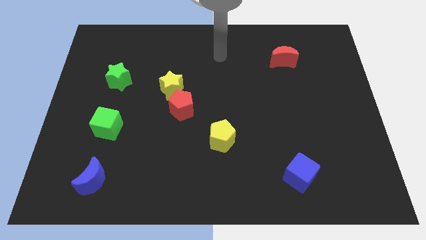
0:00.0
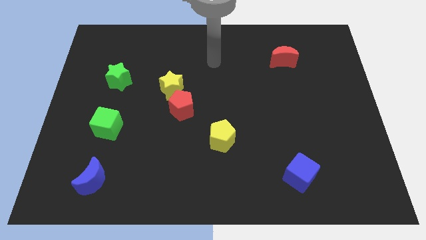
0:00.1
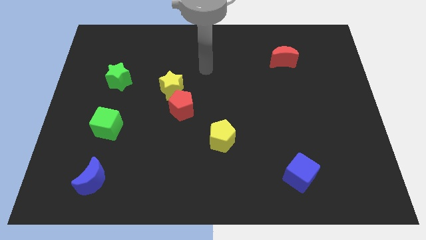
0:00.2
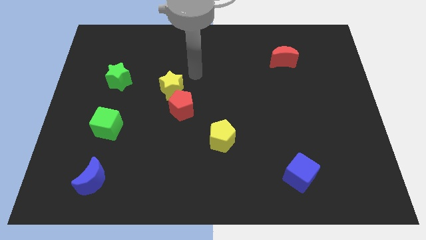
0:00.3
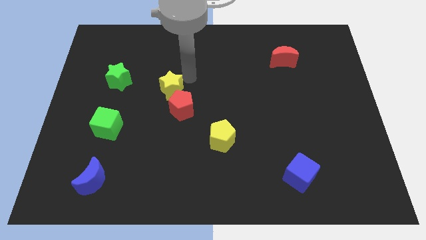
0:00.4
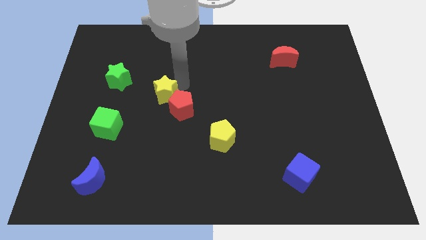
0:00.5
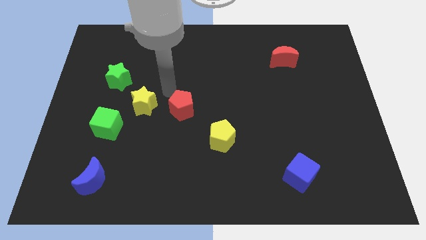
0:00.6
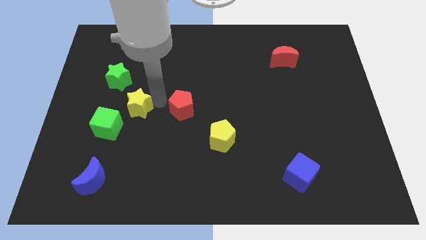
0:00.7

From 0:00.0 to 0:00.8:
separate the red pentagon from the yellow star

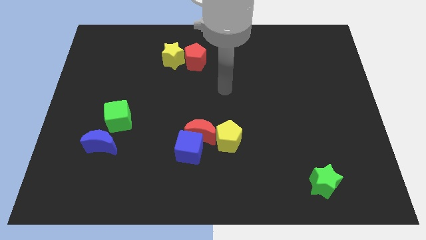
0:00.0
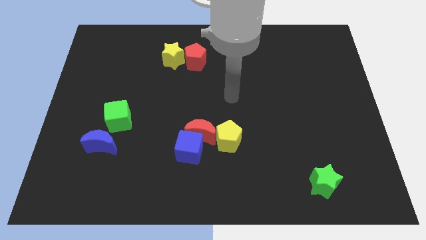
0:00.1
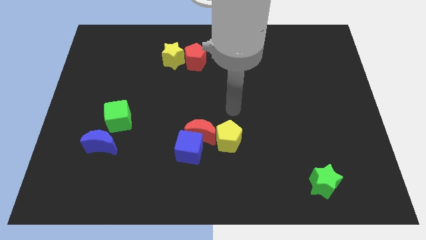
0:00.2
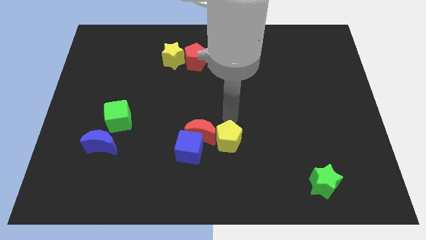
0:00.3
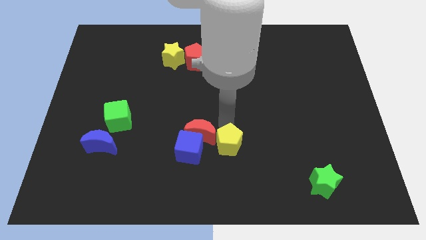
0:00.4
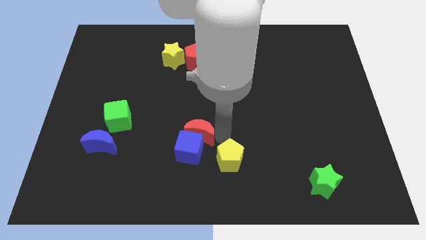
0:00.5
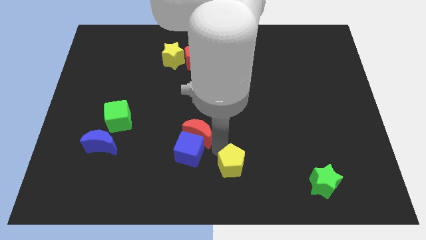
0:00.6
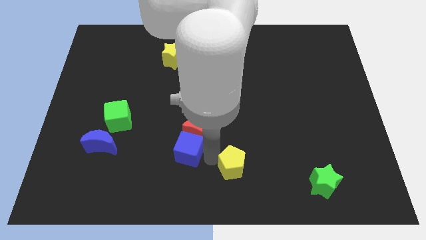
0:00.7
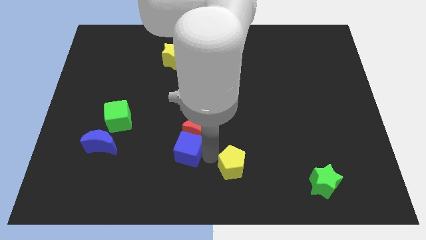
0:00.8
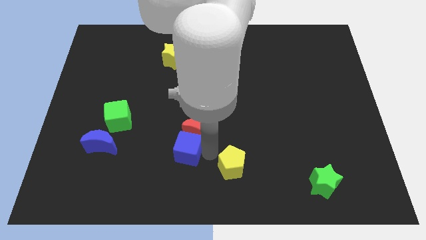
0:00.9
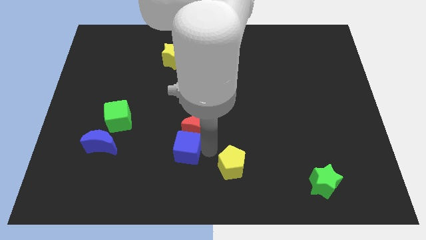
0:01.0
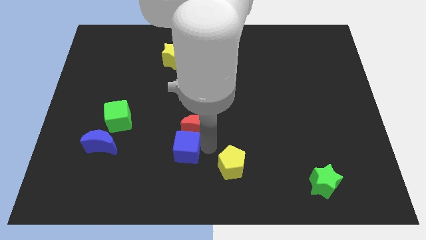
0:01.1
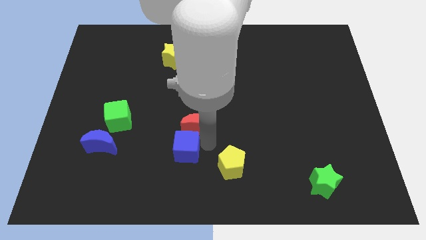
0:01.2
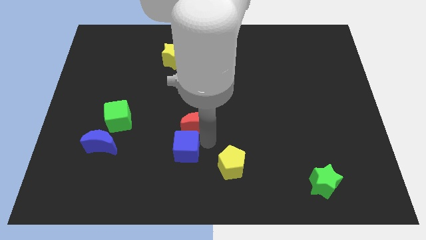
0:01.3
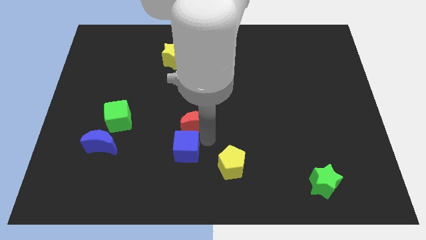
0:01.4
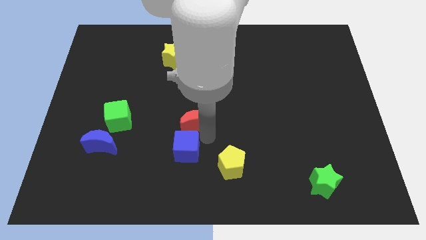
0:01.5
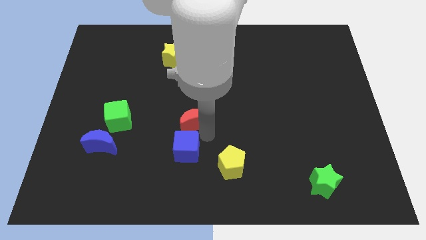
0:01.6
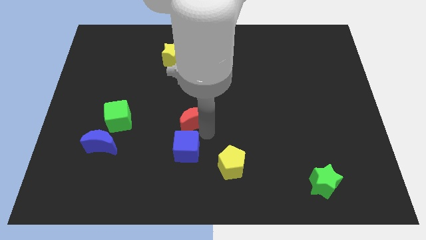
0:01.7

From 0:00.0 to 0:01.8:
pull the red moon apart from the blue cube and yellow pentagon

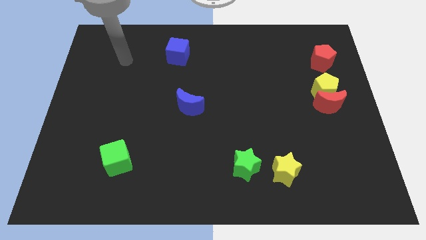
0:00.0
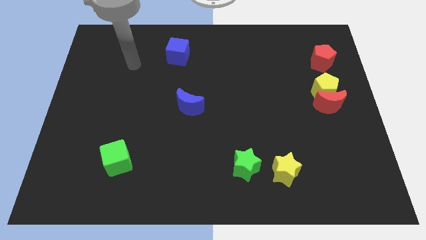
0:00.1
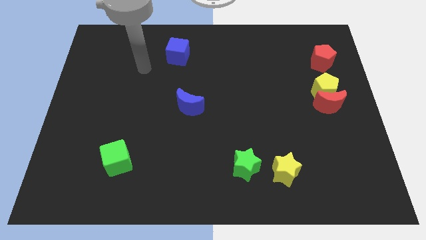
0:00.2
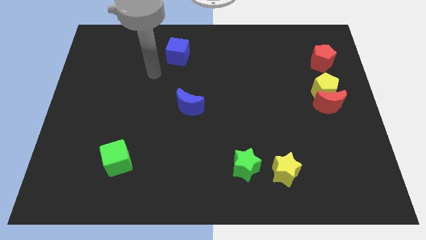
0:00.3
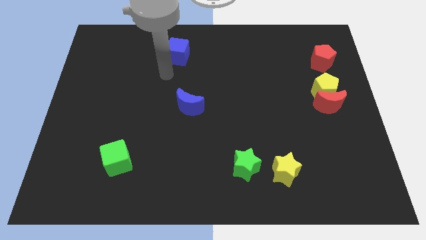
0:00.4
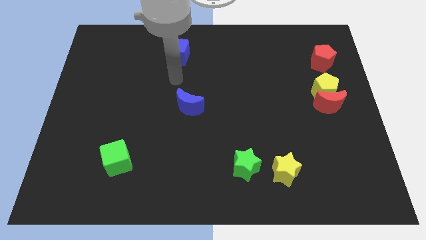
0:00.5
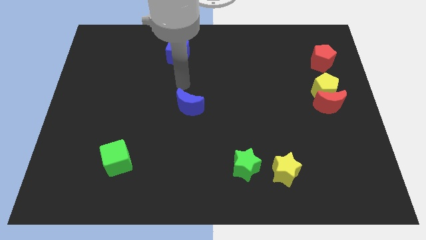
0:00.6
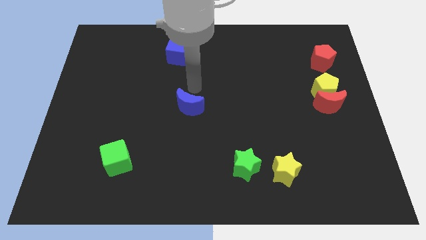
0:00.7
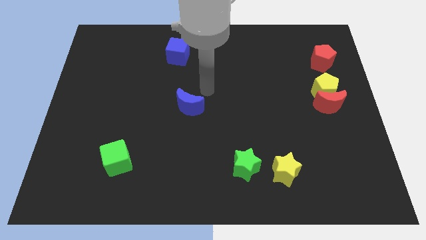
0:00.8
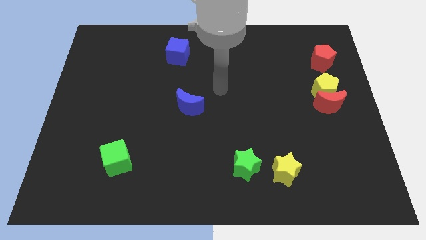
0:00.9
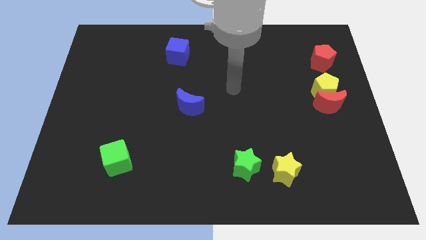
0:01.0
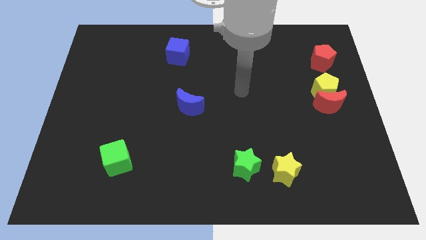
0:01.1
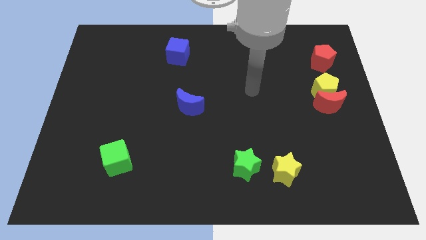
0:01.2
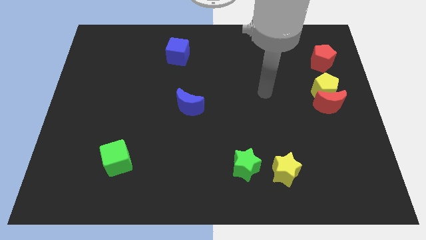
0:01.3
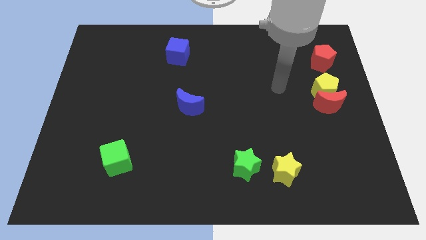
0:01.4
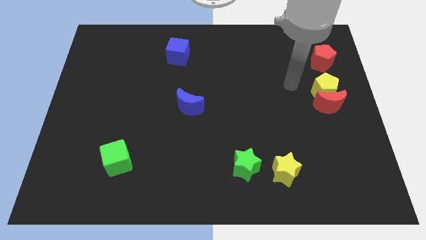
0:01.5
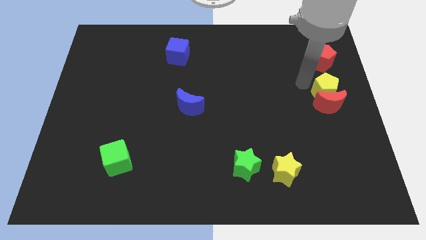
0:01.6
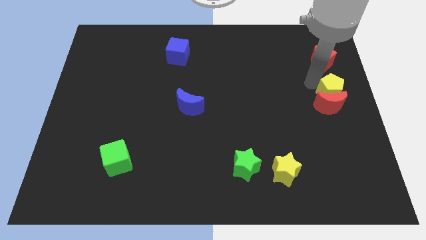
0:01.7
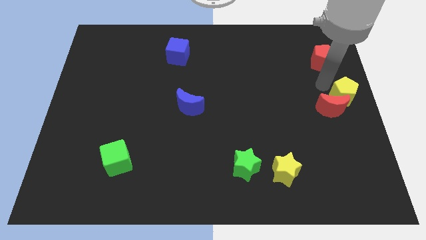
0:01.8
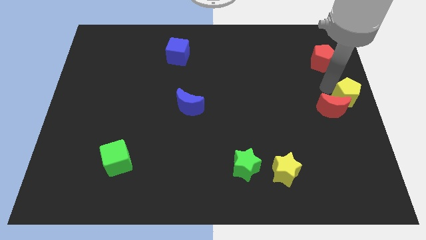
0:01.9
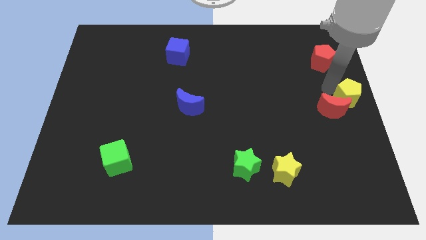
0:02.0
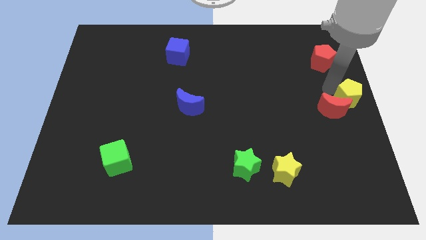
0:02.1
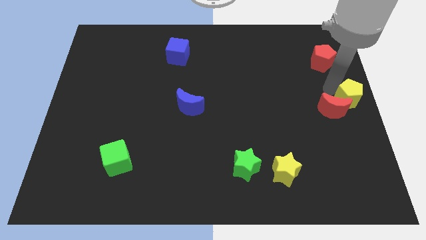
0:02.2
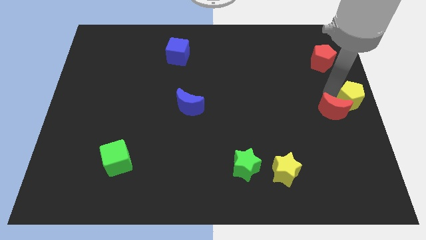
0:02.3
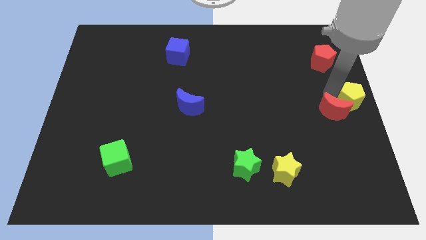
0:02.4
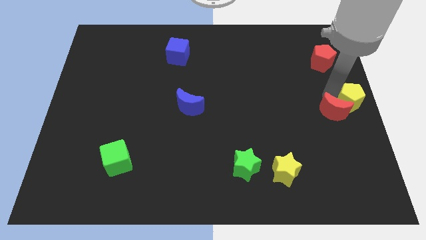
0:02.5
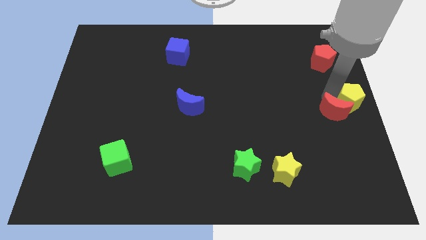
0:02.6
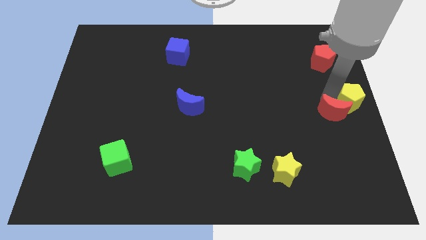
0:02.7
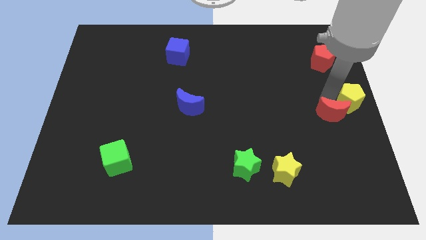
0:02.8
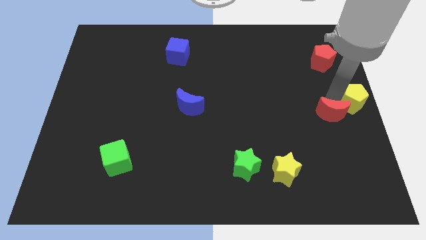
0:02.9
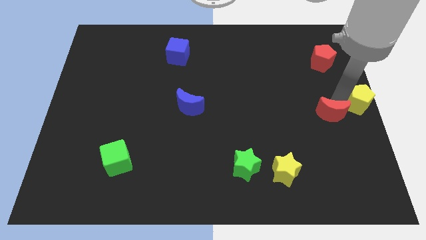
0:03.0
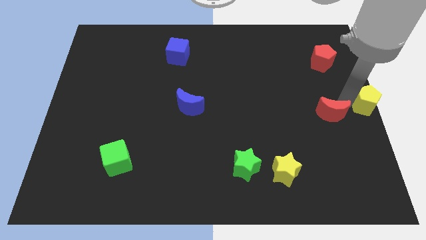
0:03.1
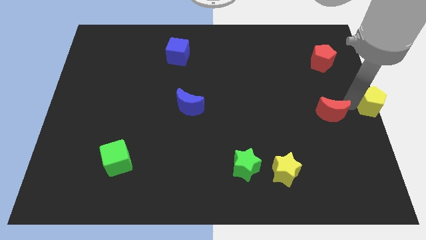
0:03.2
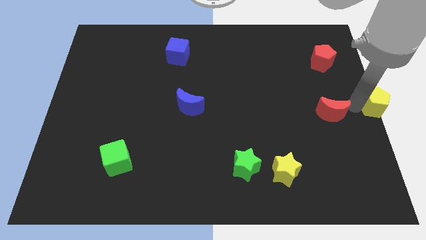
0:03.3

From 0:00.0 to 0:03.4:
separate the red moon from the yellow pentagon

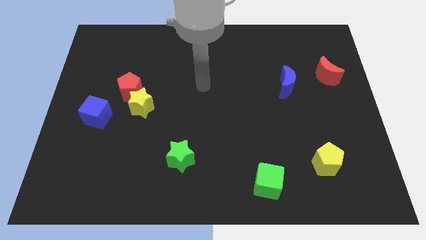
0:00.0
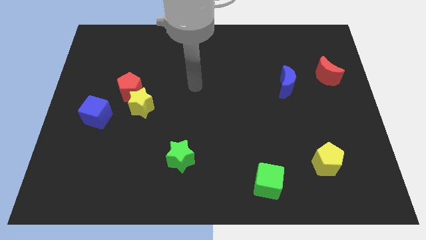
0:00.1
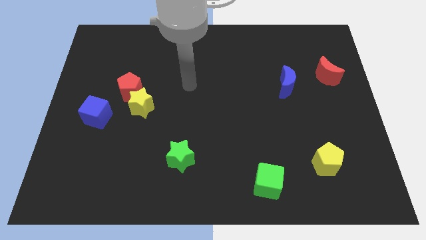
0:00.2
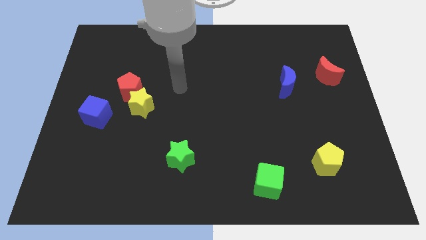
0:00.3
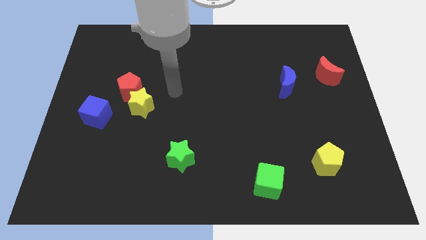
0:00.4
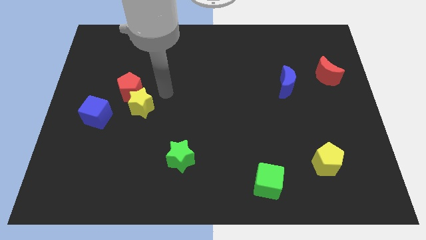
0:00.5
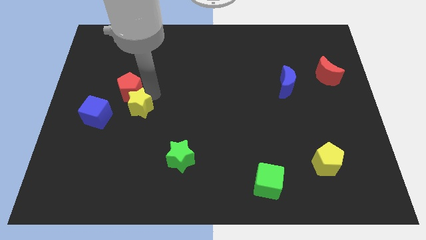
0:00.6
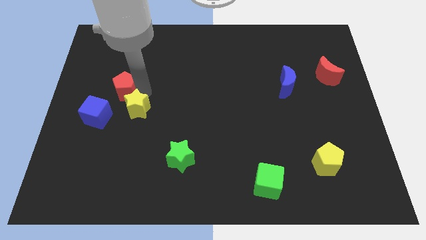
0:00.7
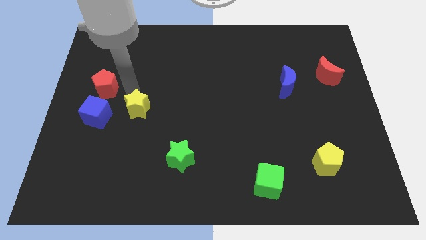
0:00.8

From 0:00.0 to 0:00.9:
pull the yellow star apart from the red pentagon

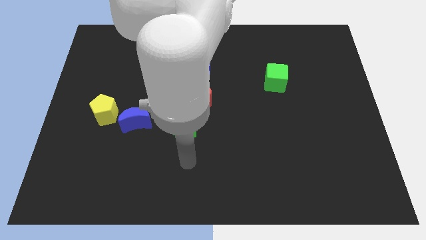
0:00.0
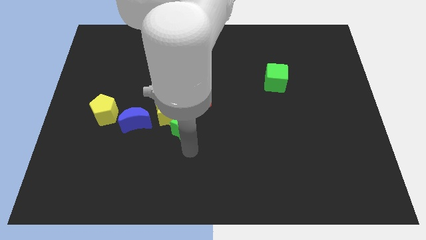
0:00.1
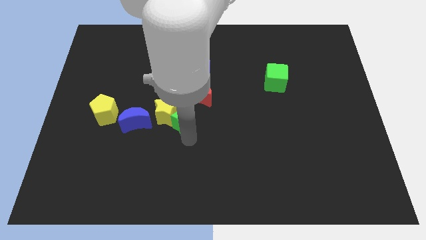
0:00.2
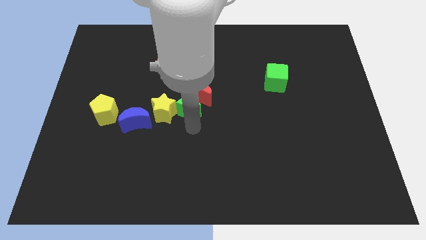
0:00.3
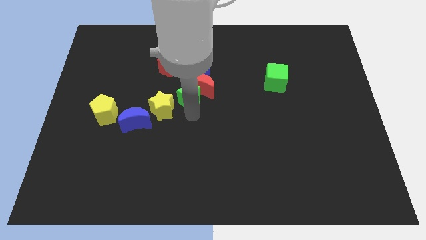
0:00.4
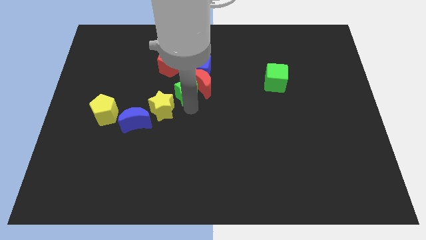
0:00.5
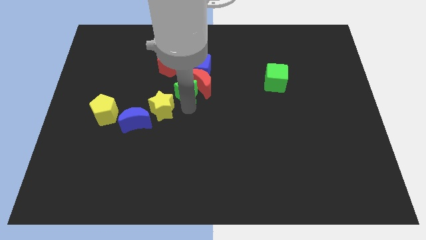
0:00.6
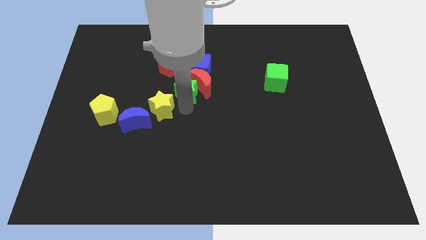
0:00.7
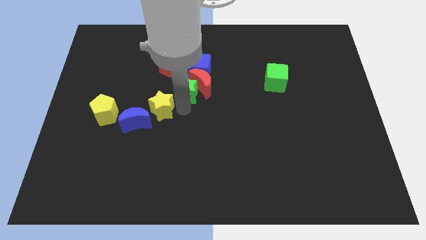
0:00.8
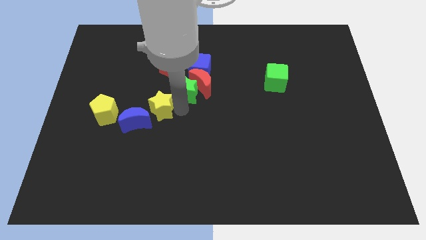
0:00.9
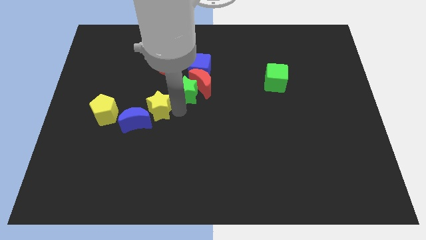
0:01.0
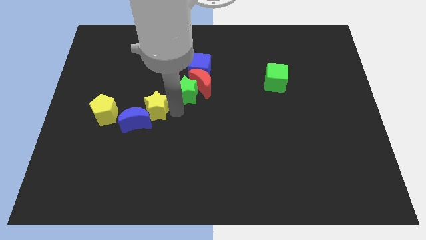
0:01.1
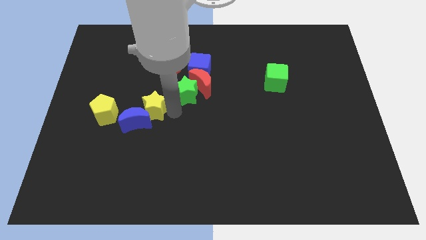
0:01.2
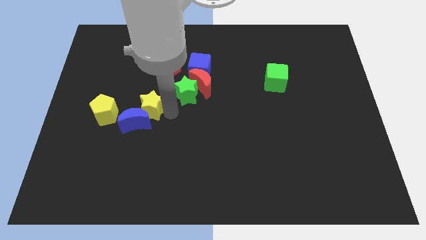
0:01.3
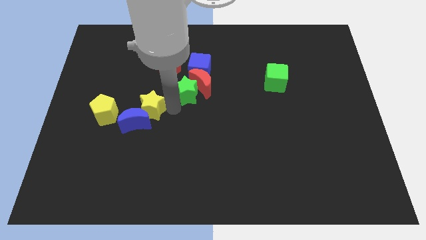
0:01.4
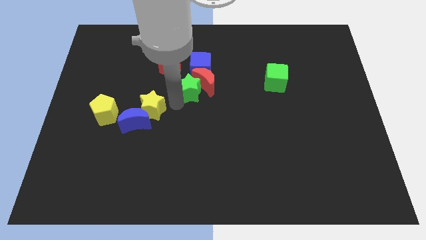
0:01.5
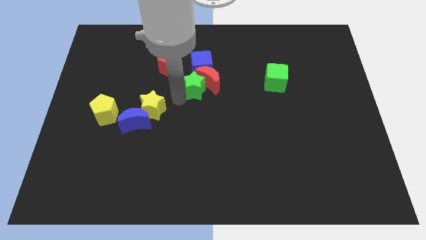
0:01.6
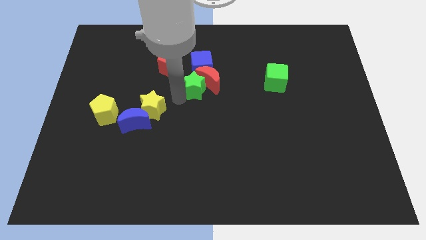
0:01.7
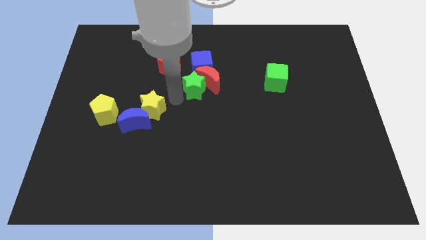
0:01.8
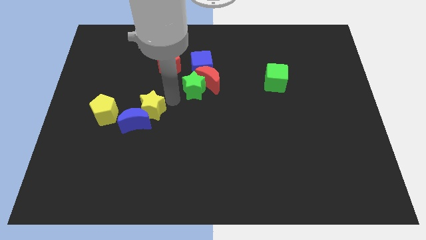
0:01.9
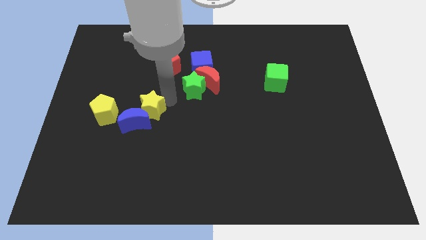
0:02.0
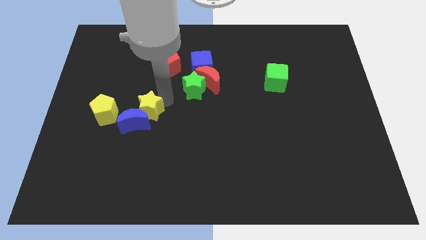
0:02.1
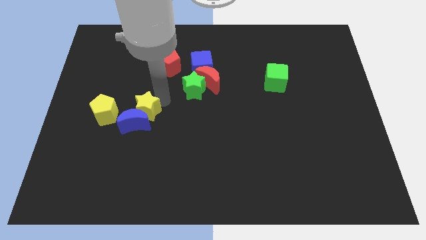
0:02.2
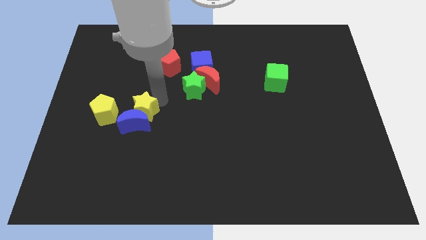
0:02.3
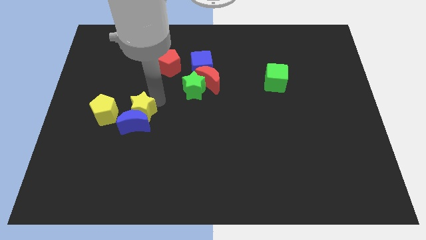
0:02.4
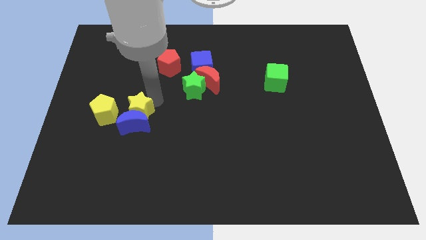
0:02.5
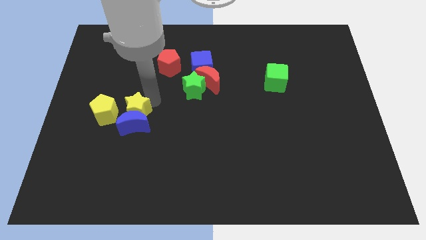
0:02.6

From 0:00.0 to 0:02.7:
separate the yellow star from the green star, blue moon, and red moon
